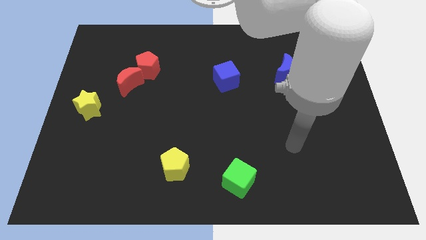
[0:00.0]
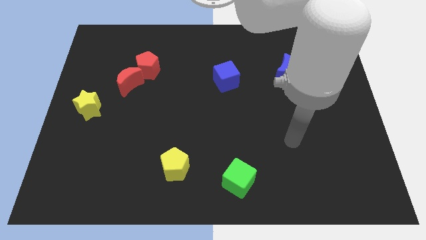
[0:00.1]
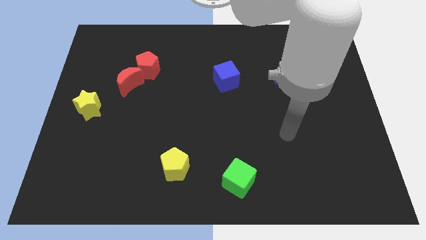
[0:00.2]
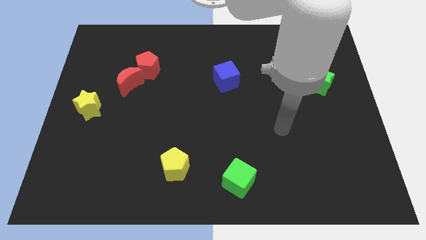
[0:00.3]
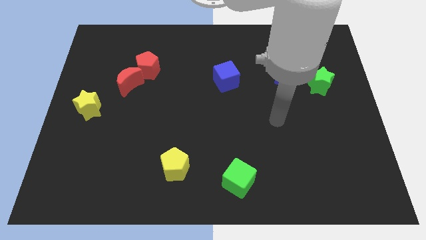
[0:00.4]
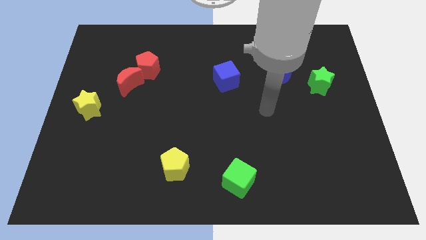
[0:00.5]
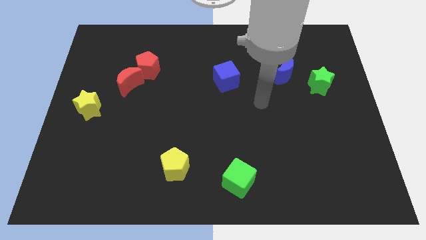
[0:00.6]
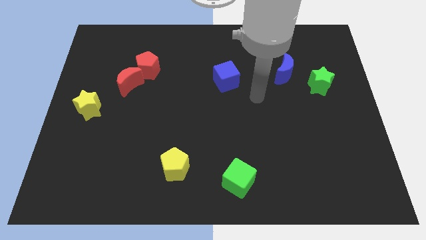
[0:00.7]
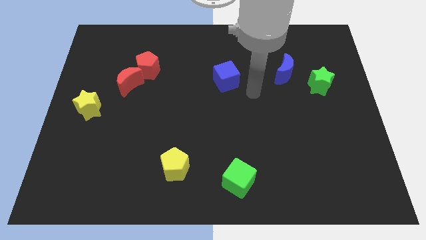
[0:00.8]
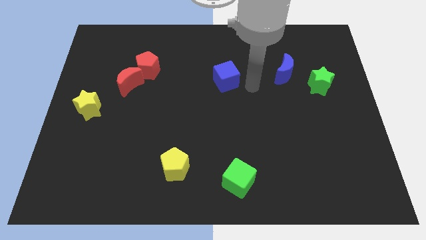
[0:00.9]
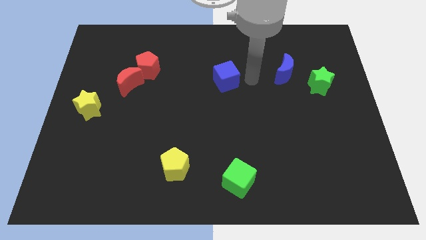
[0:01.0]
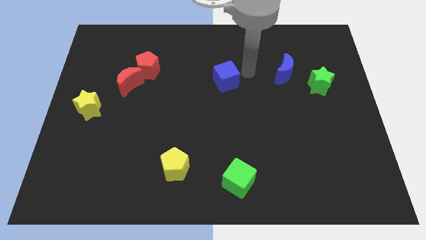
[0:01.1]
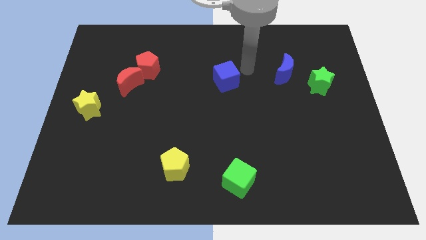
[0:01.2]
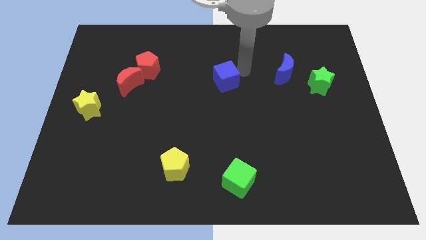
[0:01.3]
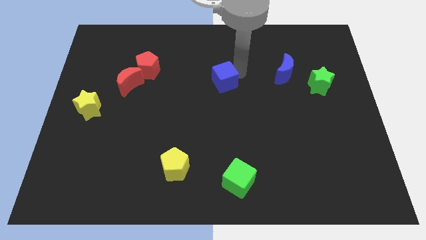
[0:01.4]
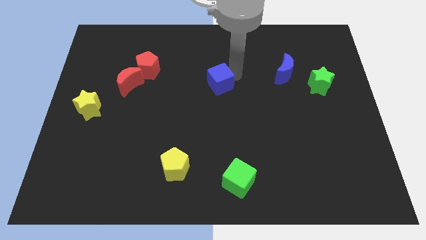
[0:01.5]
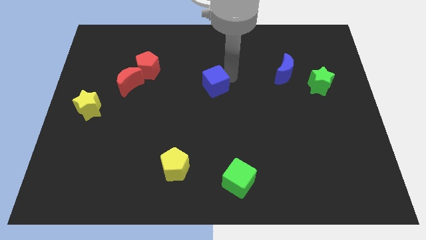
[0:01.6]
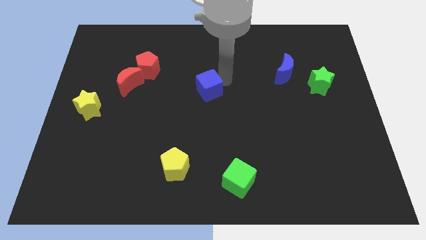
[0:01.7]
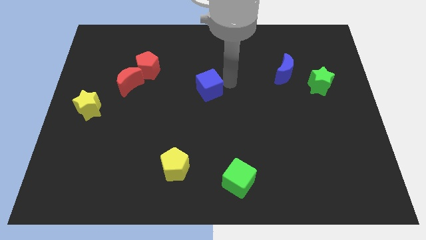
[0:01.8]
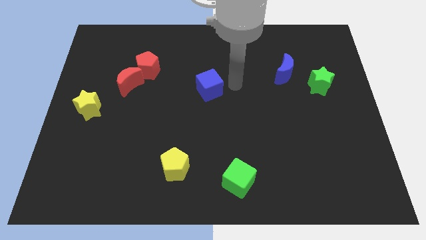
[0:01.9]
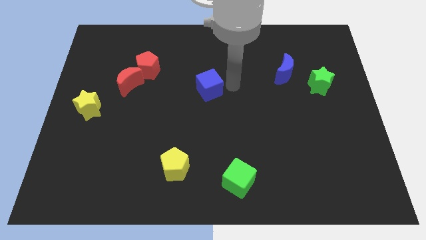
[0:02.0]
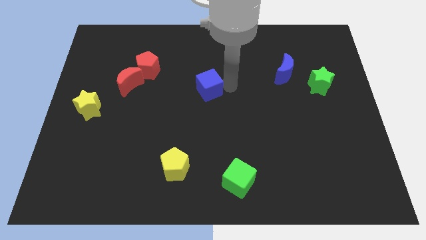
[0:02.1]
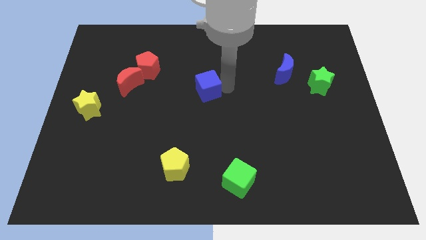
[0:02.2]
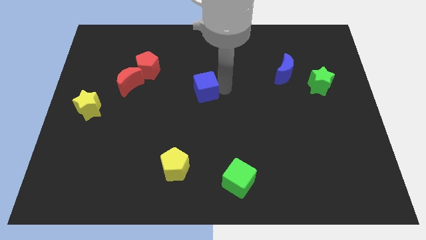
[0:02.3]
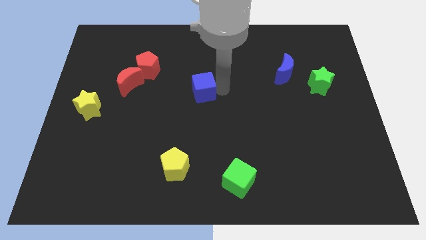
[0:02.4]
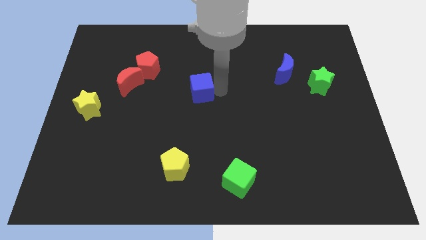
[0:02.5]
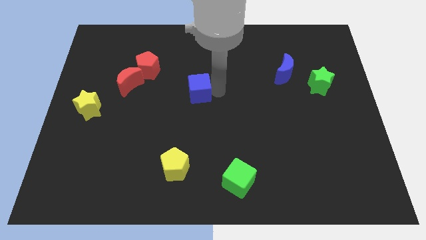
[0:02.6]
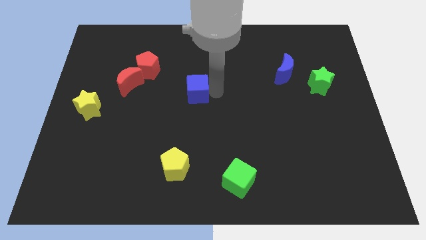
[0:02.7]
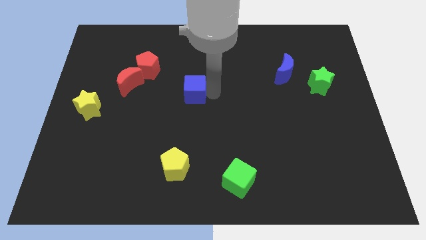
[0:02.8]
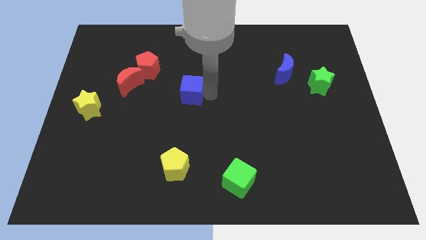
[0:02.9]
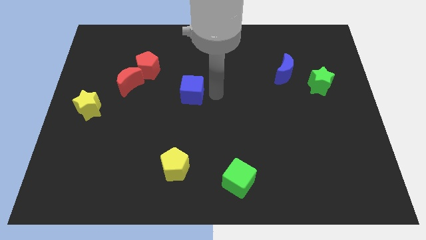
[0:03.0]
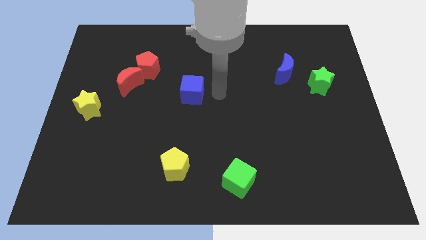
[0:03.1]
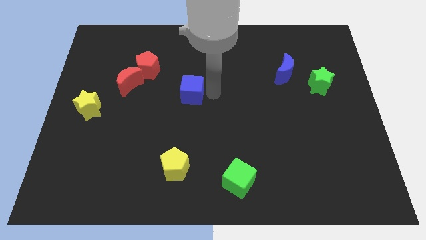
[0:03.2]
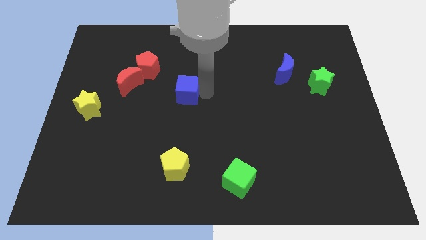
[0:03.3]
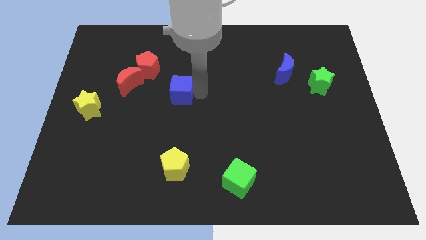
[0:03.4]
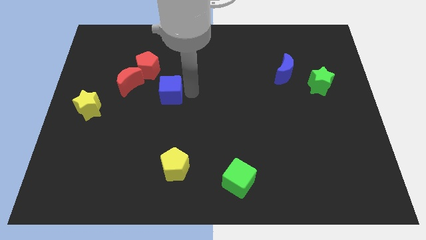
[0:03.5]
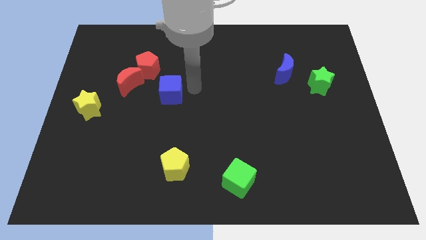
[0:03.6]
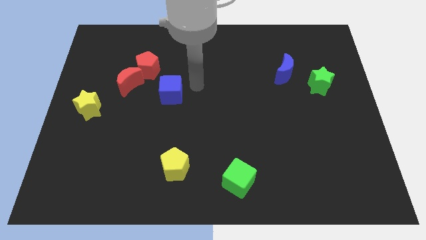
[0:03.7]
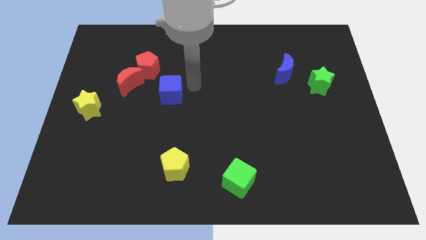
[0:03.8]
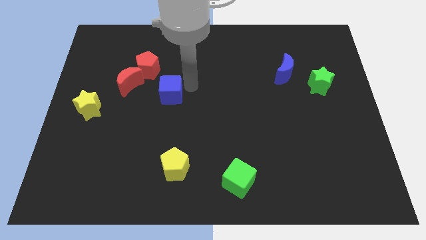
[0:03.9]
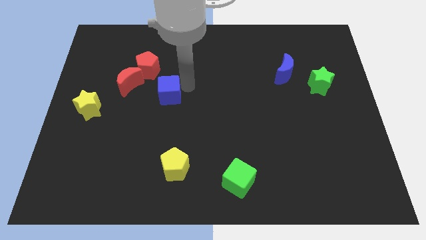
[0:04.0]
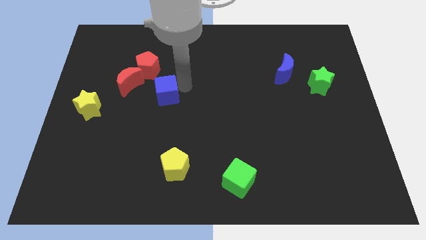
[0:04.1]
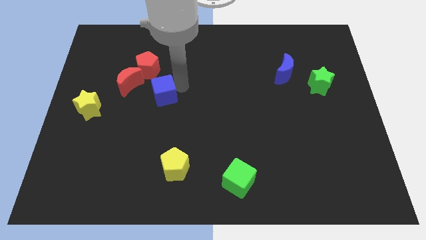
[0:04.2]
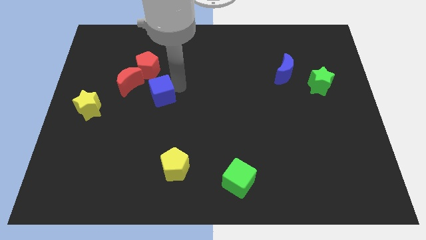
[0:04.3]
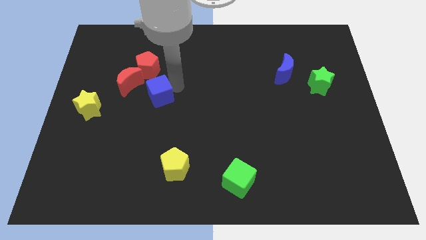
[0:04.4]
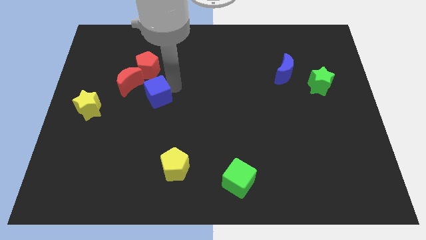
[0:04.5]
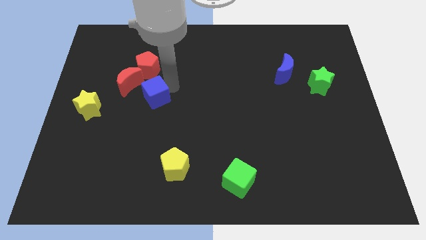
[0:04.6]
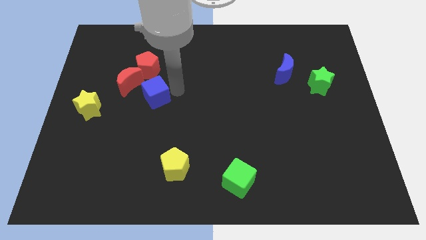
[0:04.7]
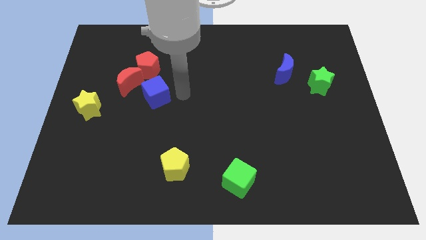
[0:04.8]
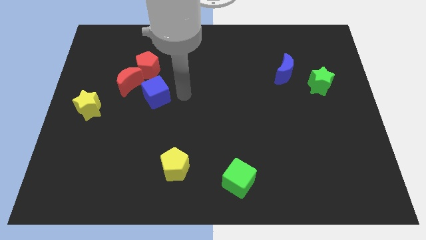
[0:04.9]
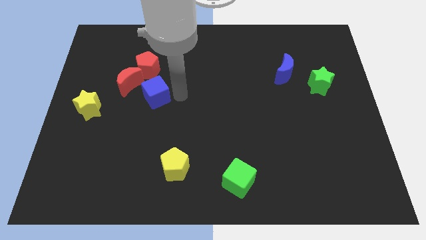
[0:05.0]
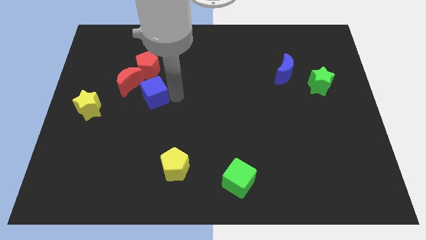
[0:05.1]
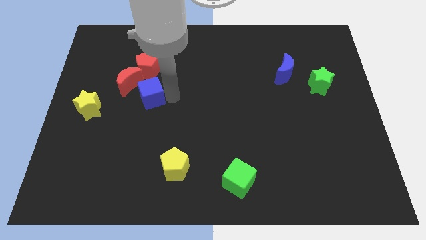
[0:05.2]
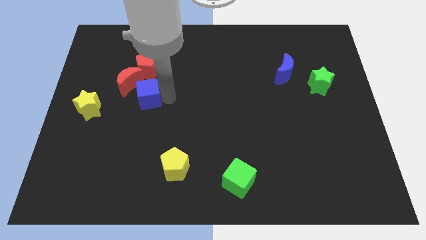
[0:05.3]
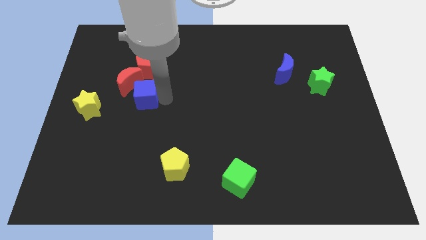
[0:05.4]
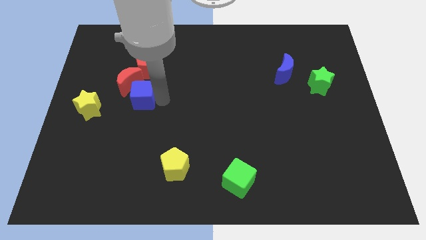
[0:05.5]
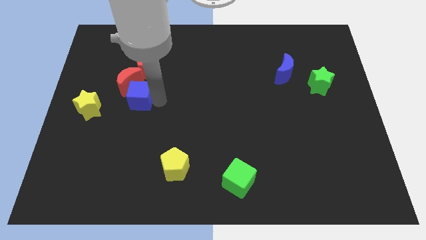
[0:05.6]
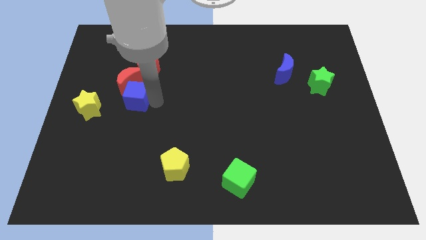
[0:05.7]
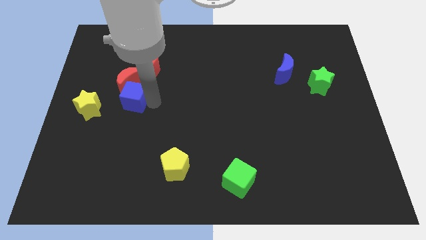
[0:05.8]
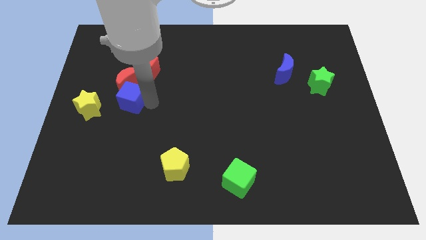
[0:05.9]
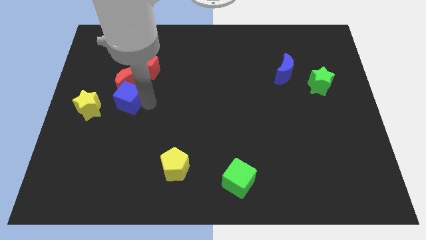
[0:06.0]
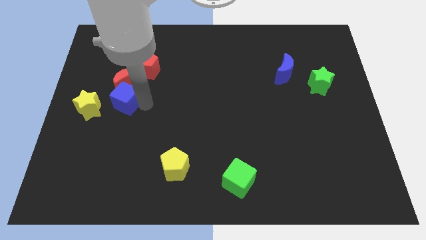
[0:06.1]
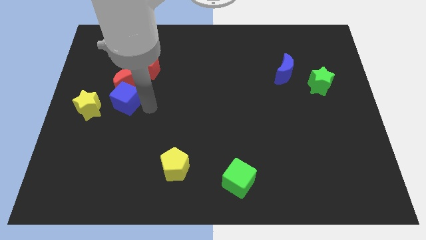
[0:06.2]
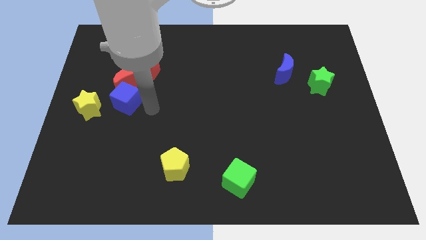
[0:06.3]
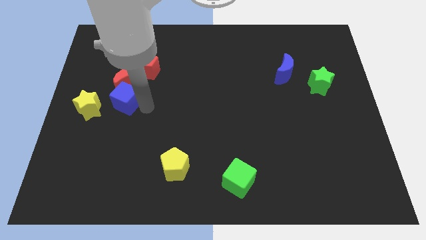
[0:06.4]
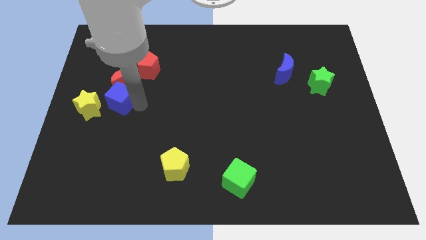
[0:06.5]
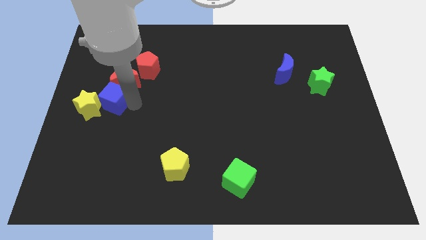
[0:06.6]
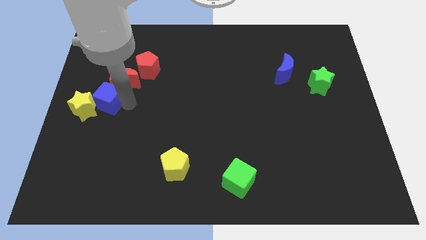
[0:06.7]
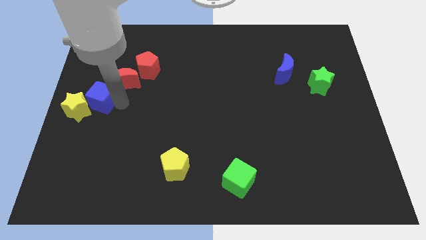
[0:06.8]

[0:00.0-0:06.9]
slide the blue cube to the left side of the board
